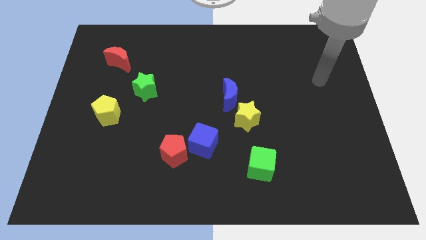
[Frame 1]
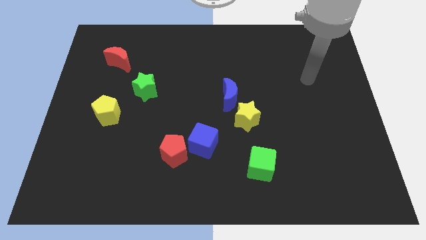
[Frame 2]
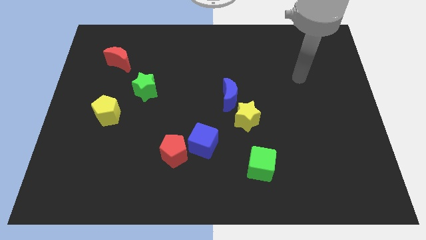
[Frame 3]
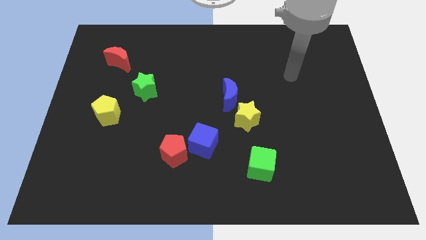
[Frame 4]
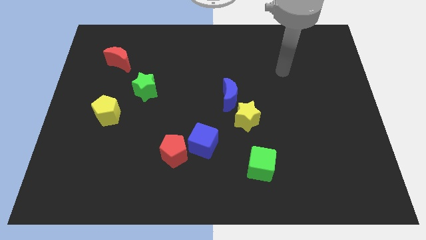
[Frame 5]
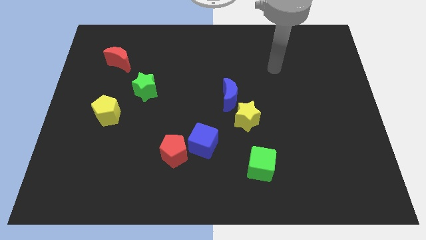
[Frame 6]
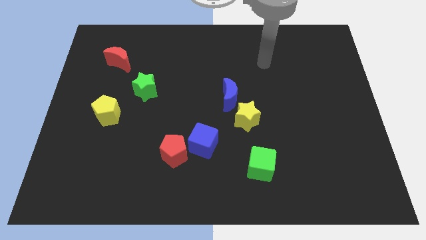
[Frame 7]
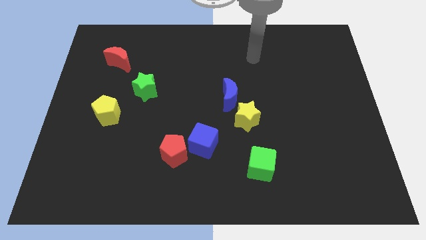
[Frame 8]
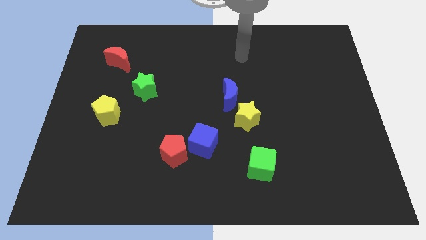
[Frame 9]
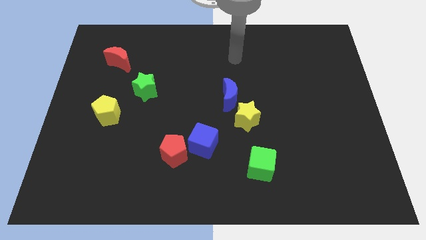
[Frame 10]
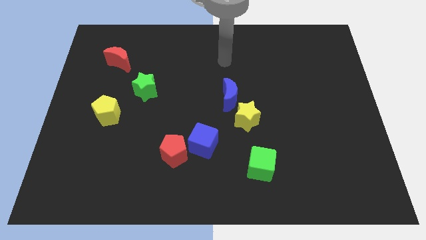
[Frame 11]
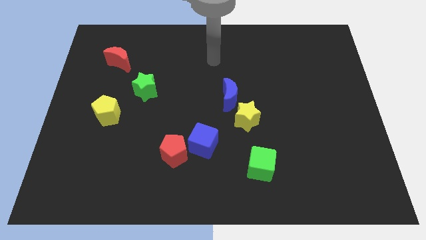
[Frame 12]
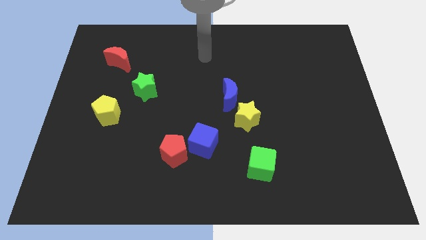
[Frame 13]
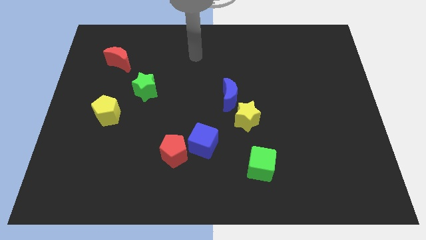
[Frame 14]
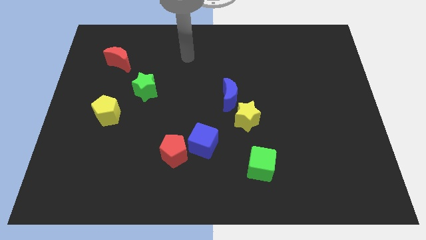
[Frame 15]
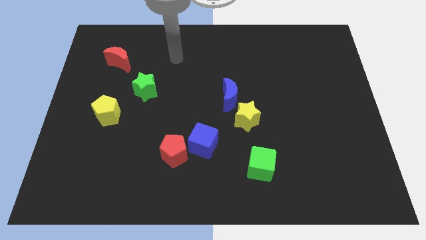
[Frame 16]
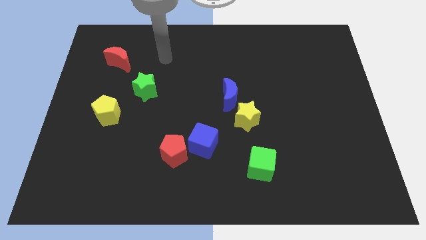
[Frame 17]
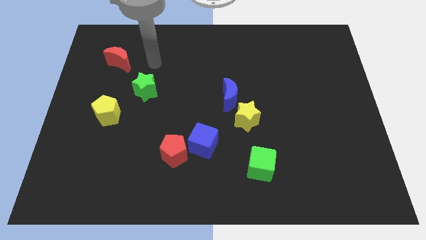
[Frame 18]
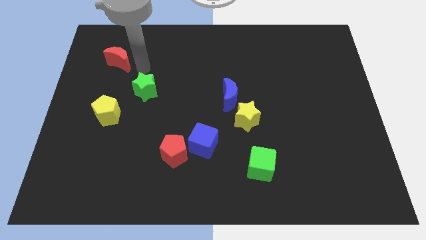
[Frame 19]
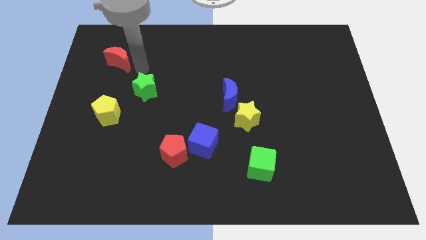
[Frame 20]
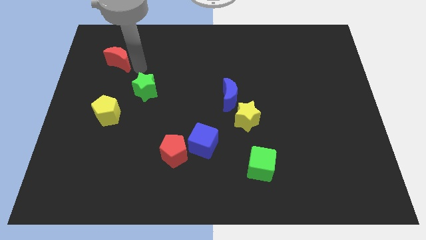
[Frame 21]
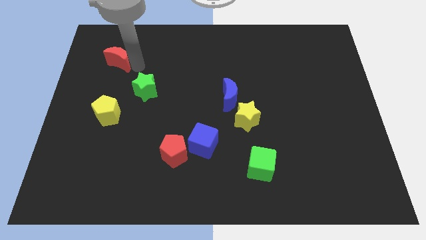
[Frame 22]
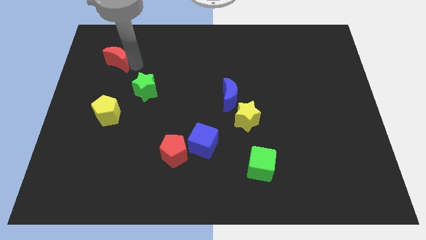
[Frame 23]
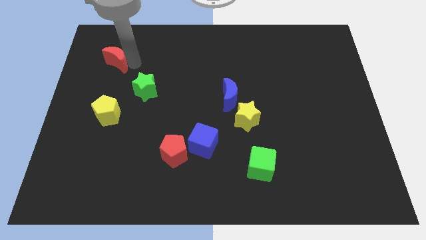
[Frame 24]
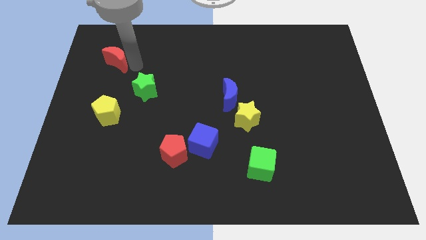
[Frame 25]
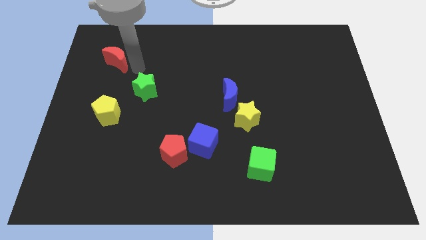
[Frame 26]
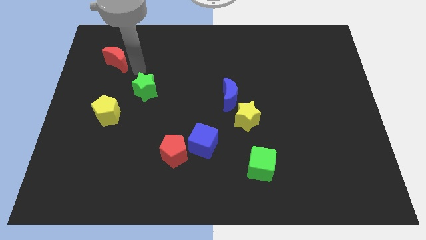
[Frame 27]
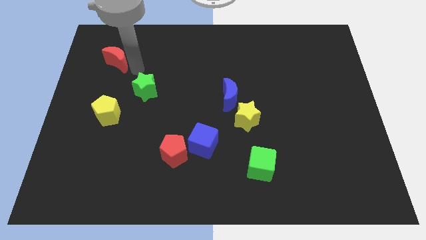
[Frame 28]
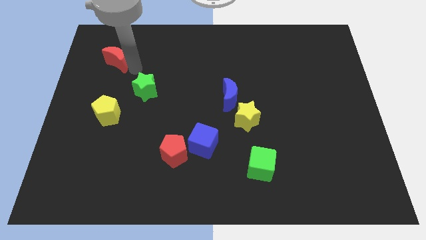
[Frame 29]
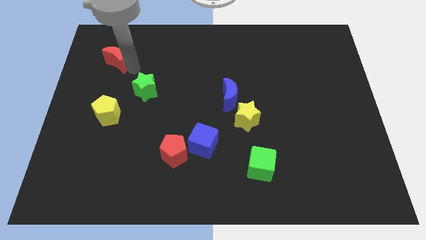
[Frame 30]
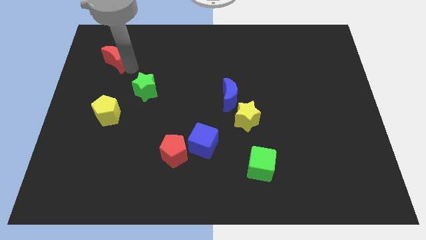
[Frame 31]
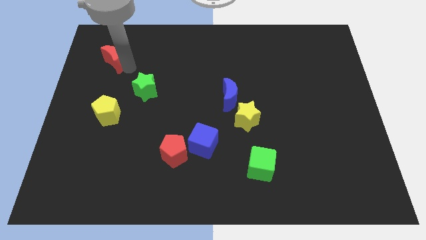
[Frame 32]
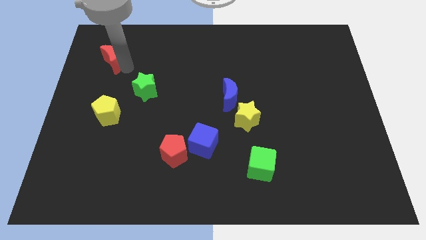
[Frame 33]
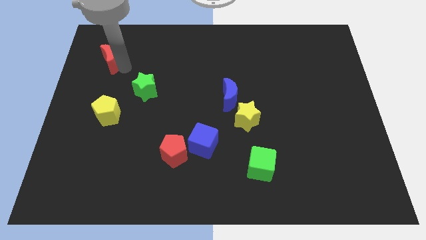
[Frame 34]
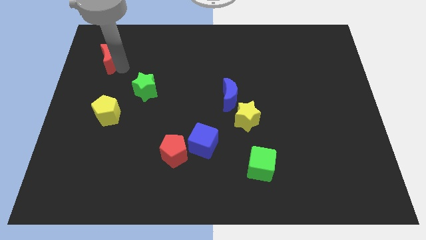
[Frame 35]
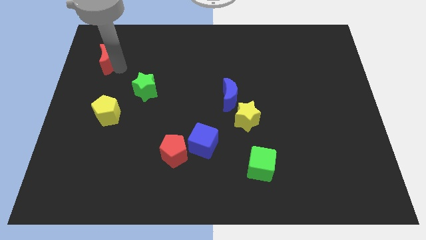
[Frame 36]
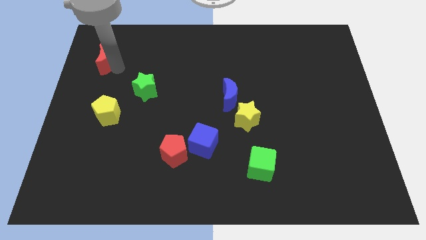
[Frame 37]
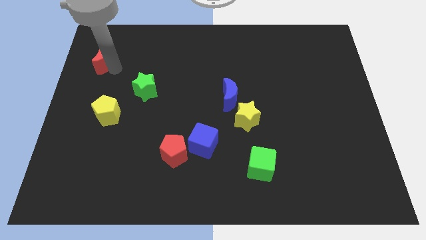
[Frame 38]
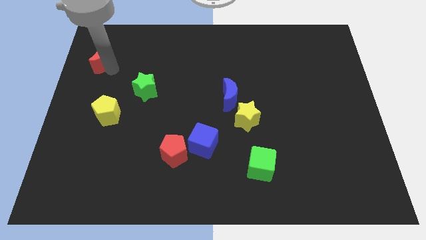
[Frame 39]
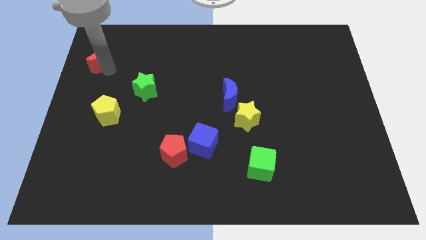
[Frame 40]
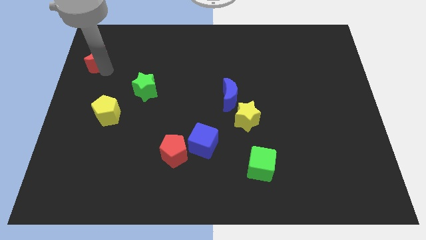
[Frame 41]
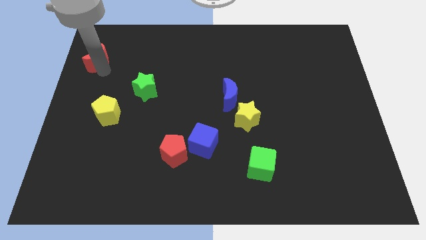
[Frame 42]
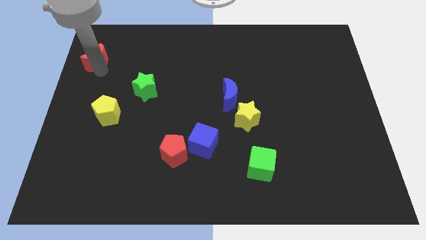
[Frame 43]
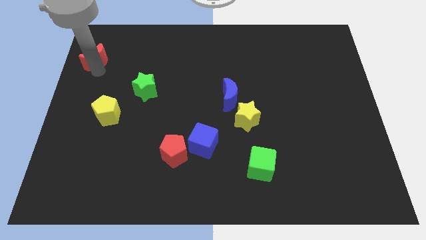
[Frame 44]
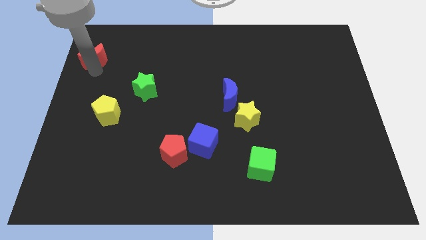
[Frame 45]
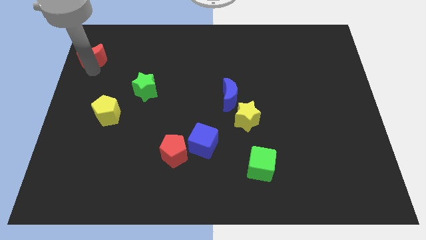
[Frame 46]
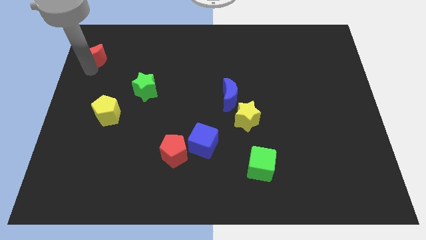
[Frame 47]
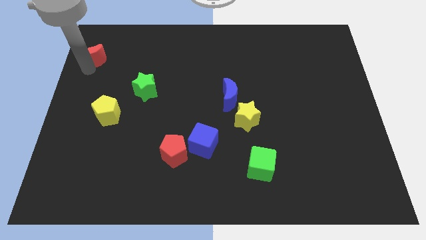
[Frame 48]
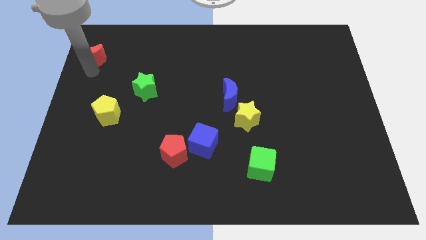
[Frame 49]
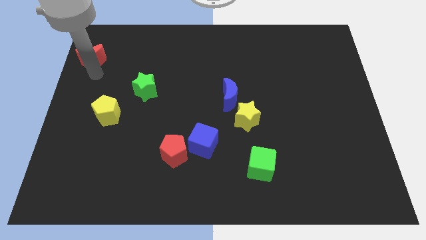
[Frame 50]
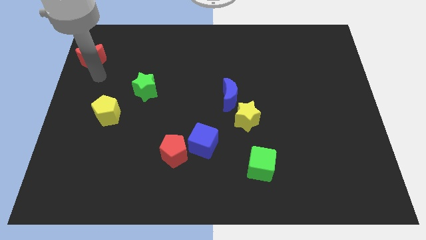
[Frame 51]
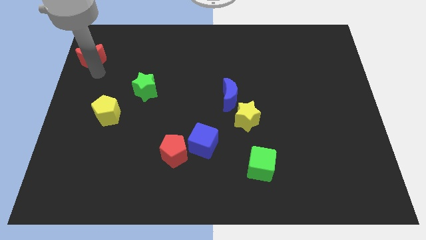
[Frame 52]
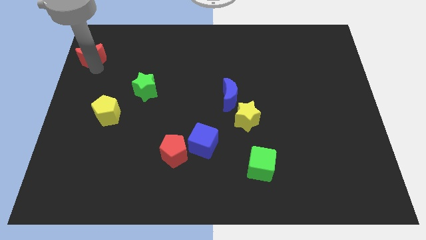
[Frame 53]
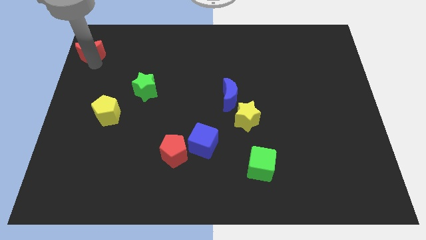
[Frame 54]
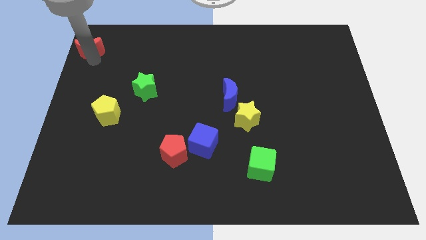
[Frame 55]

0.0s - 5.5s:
move the red moon to the top left of the board

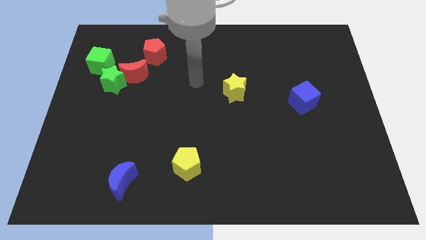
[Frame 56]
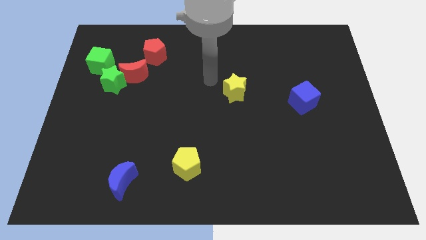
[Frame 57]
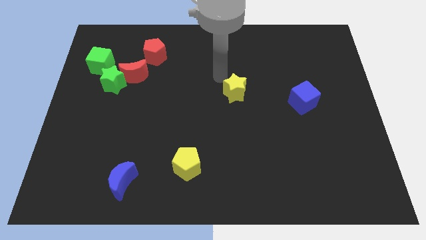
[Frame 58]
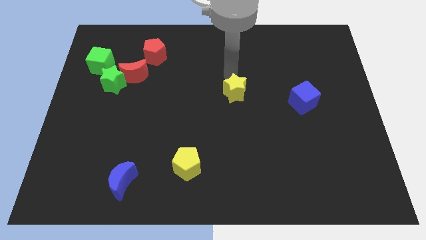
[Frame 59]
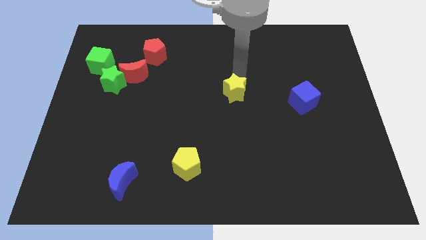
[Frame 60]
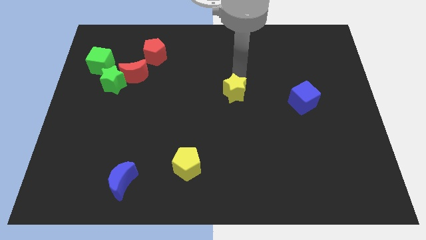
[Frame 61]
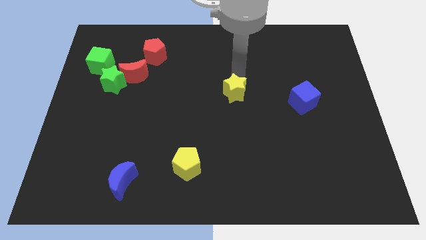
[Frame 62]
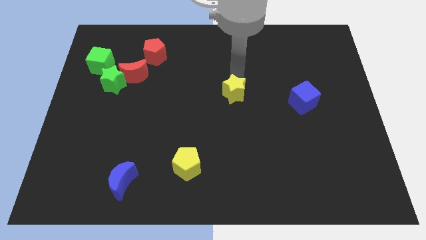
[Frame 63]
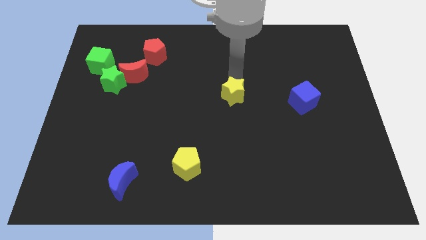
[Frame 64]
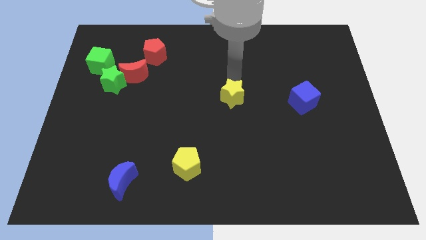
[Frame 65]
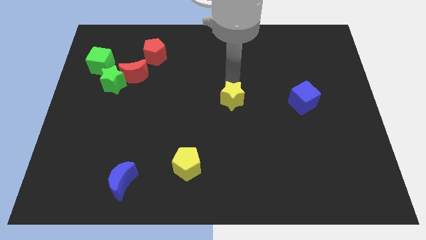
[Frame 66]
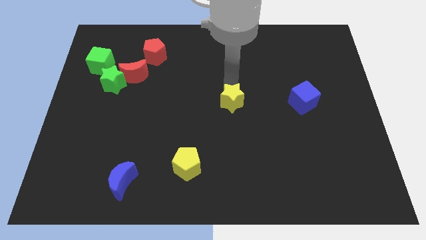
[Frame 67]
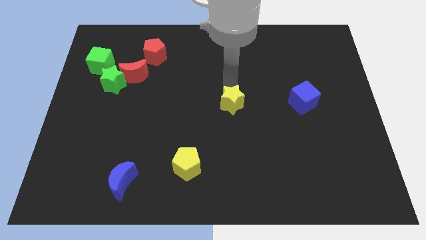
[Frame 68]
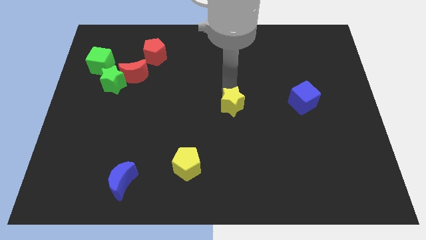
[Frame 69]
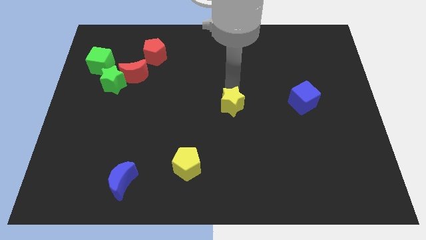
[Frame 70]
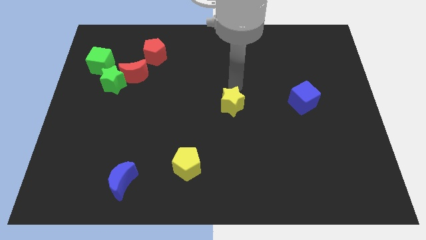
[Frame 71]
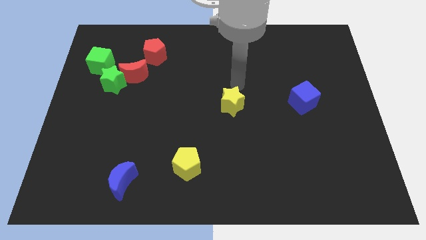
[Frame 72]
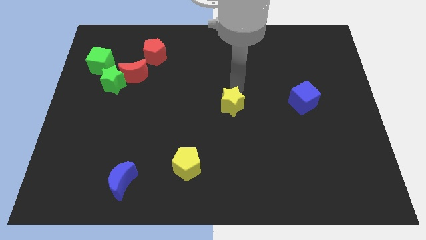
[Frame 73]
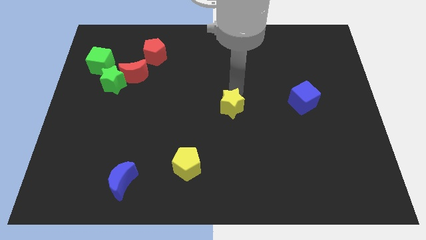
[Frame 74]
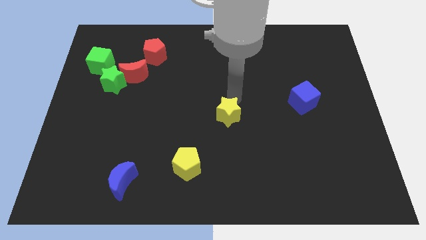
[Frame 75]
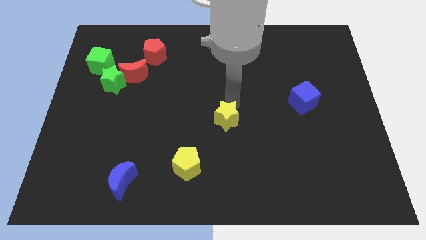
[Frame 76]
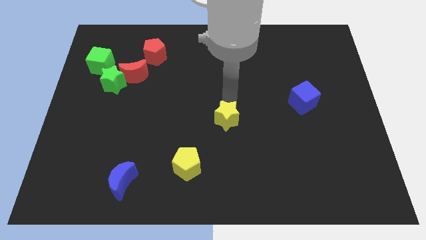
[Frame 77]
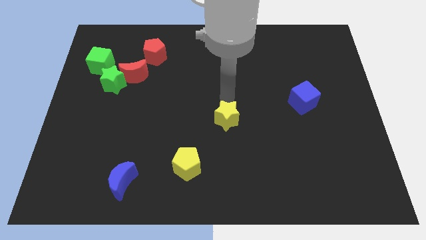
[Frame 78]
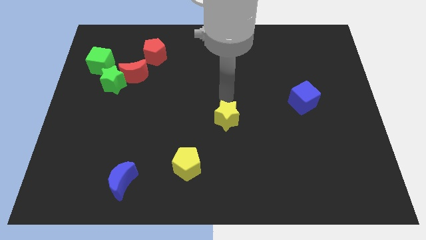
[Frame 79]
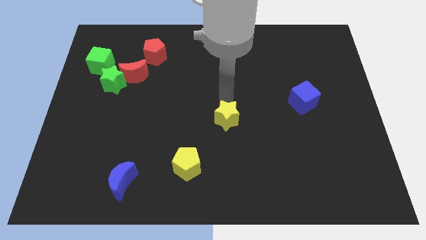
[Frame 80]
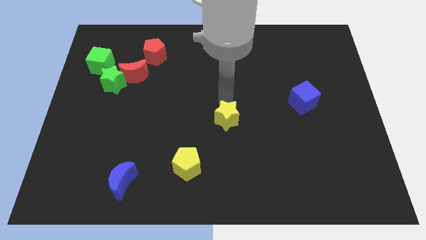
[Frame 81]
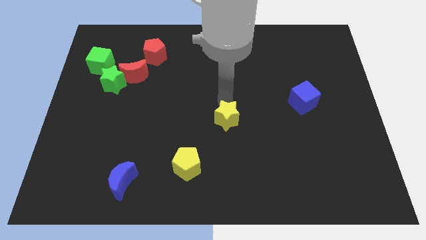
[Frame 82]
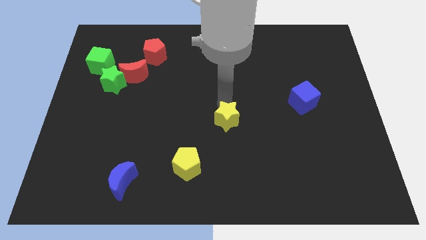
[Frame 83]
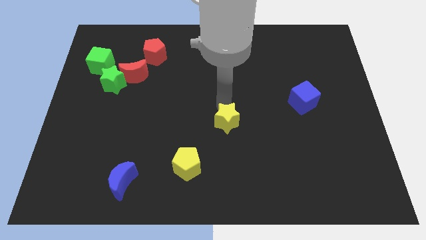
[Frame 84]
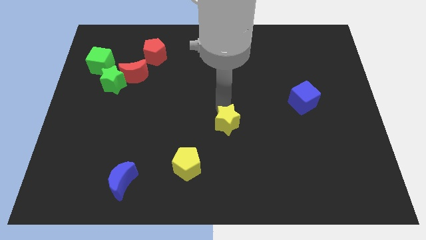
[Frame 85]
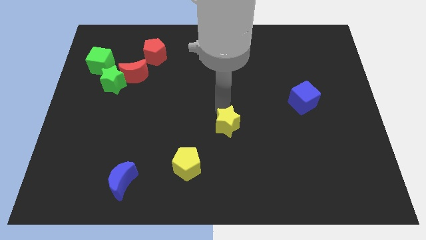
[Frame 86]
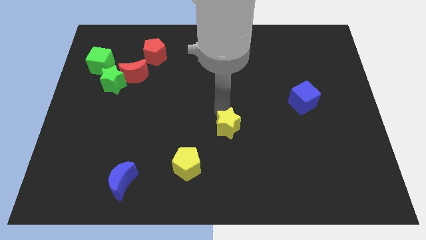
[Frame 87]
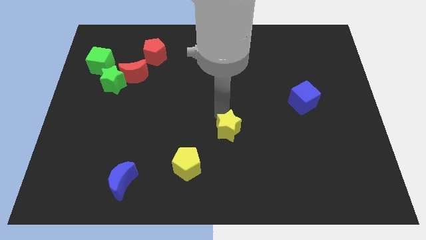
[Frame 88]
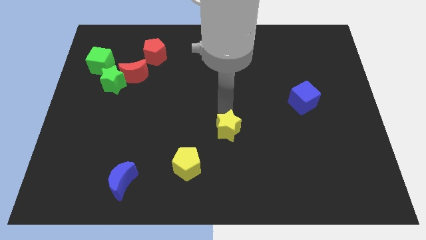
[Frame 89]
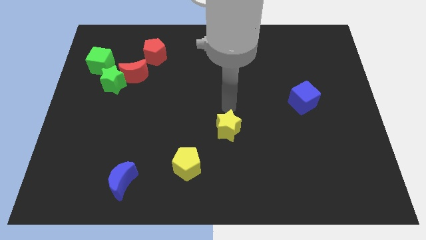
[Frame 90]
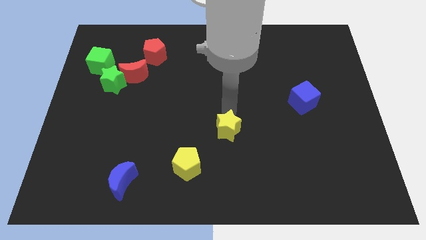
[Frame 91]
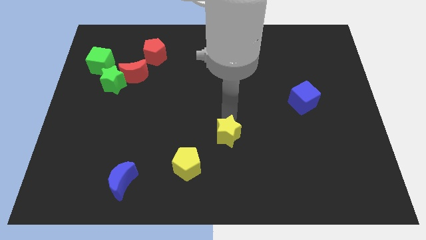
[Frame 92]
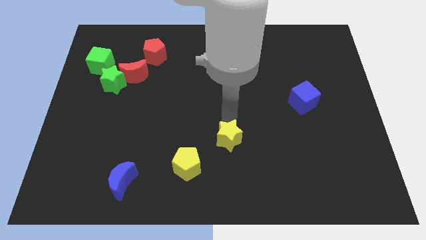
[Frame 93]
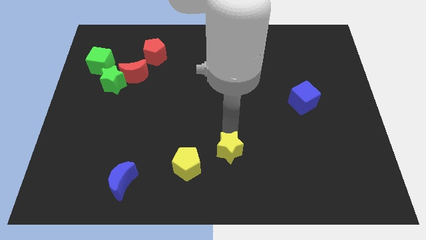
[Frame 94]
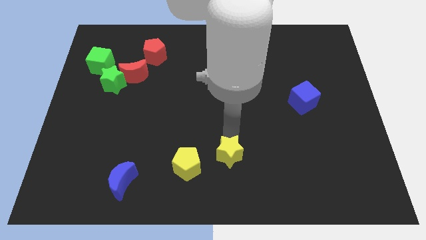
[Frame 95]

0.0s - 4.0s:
move the yellow star to the bottom
